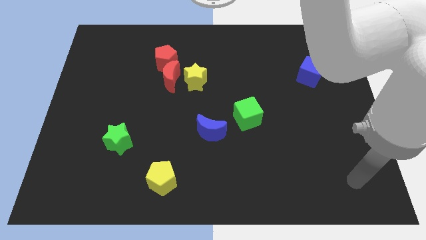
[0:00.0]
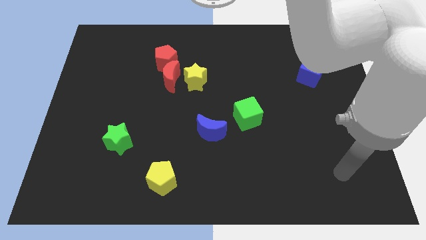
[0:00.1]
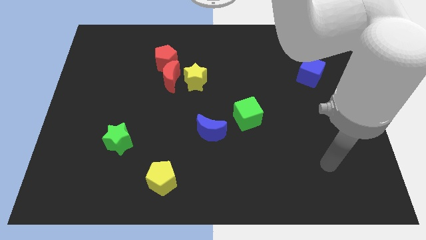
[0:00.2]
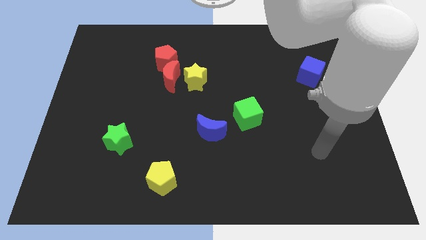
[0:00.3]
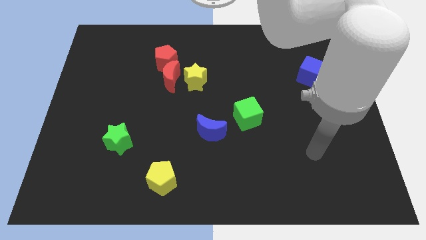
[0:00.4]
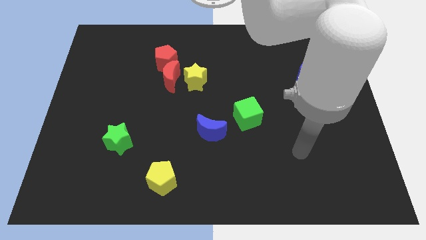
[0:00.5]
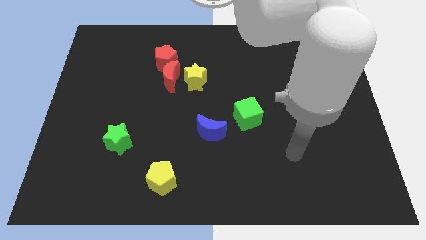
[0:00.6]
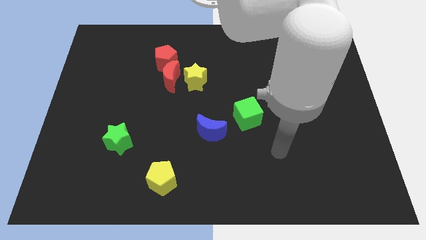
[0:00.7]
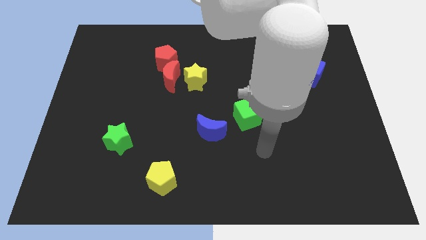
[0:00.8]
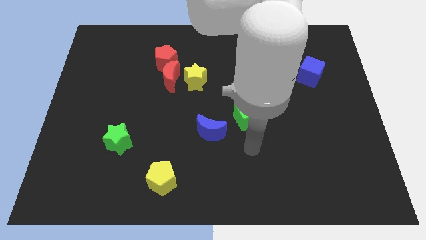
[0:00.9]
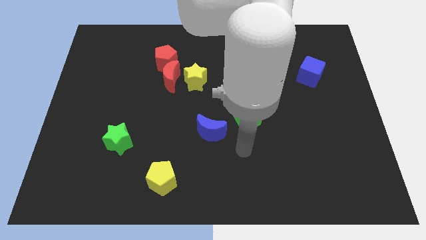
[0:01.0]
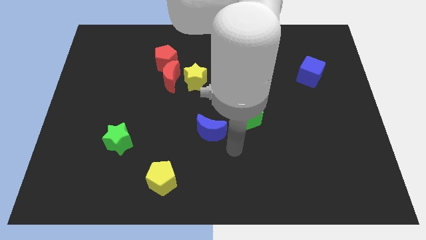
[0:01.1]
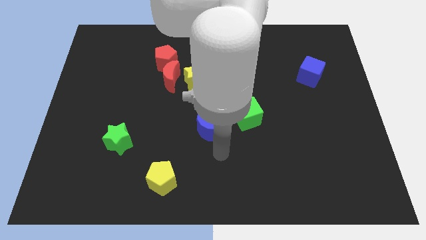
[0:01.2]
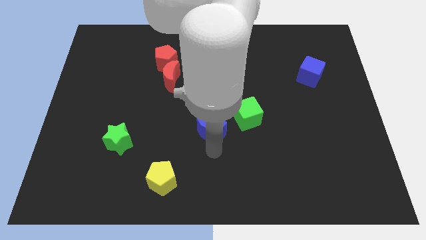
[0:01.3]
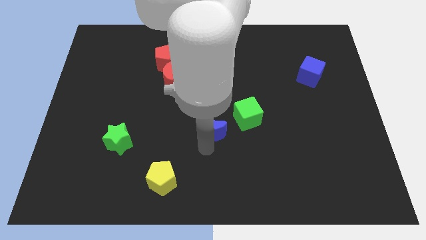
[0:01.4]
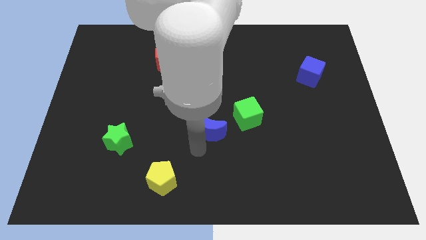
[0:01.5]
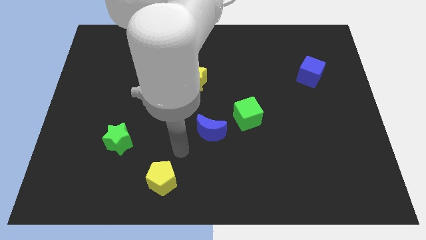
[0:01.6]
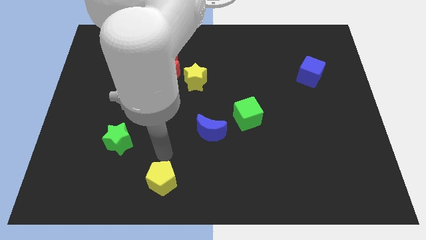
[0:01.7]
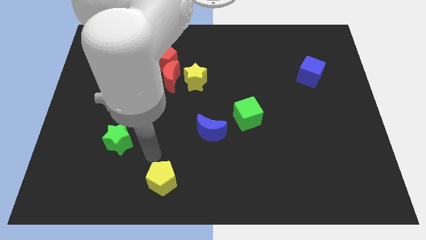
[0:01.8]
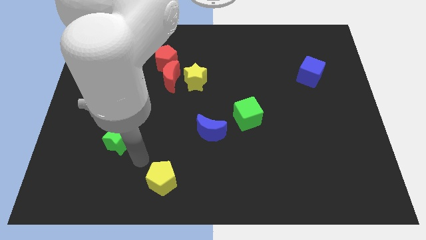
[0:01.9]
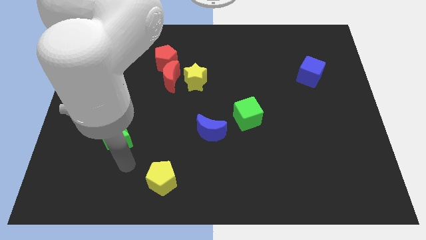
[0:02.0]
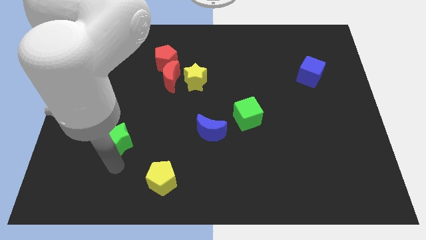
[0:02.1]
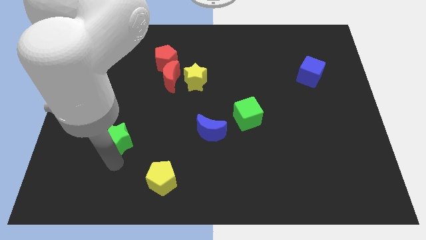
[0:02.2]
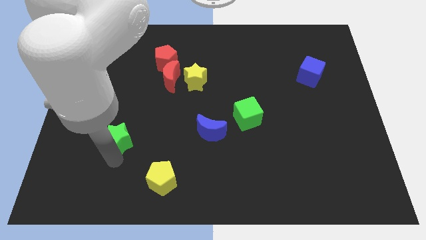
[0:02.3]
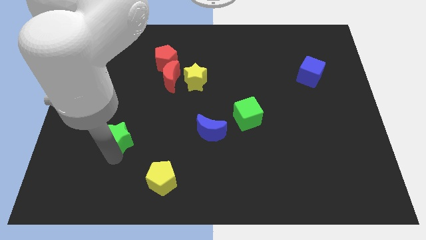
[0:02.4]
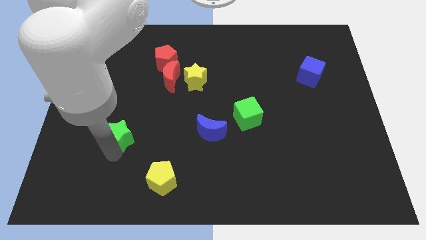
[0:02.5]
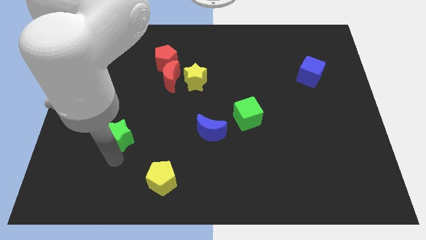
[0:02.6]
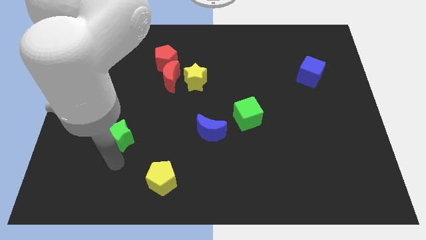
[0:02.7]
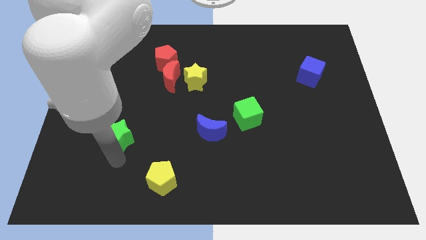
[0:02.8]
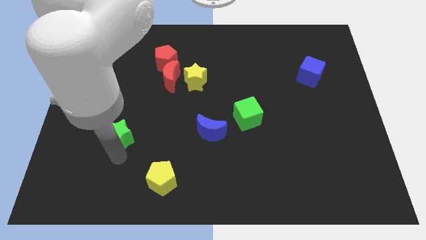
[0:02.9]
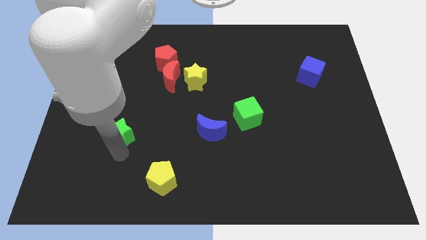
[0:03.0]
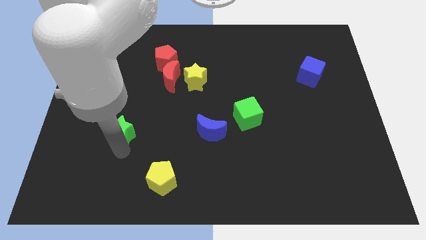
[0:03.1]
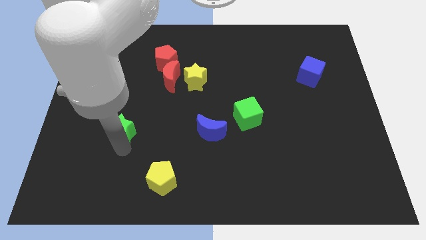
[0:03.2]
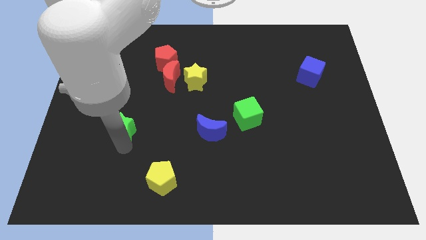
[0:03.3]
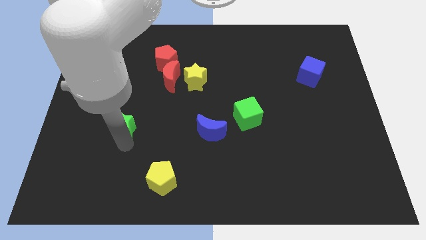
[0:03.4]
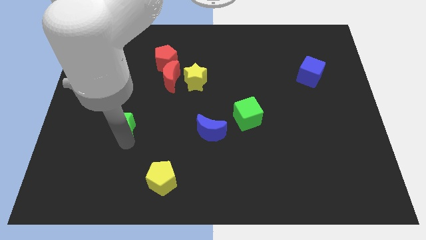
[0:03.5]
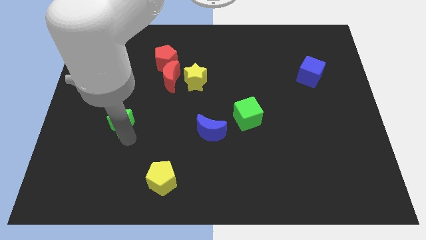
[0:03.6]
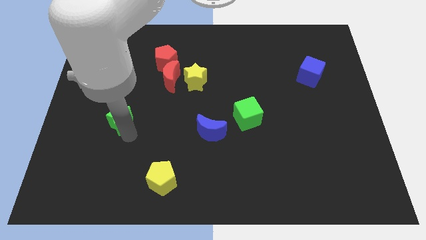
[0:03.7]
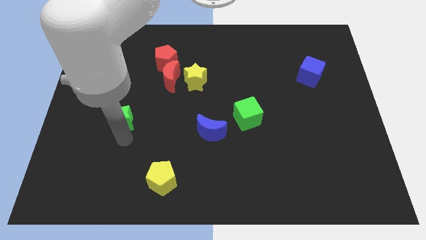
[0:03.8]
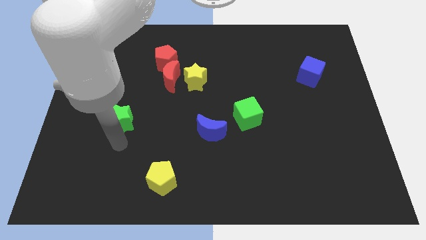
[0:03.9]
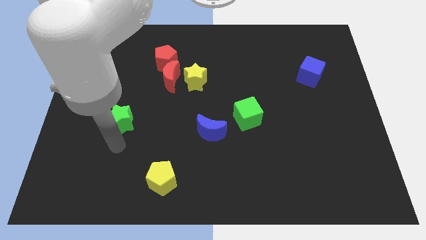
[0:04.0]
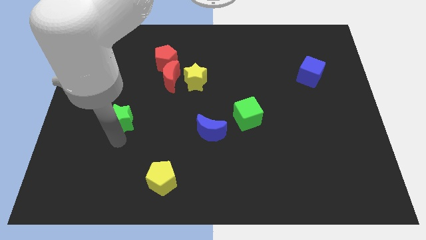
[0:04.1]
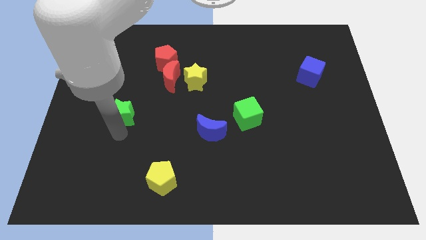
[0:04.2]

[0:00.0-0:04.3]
slide the green star a little upwards

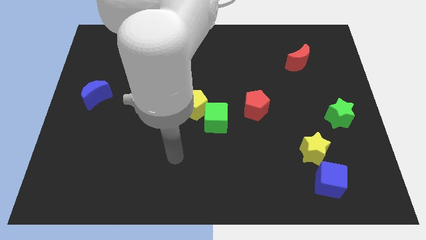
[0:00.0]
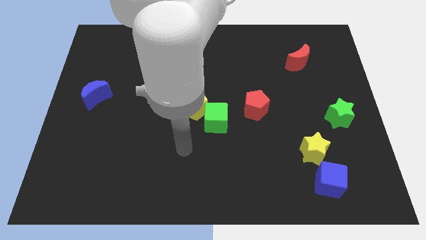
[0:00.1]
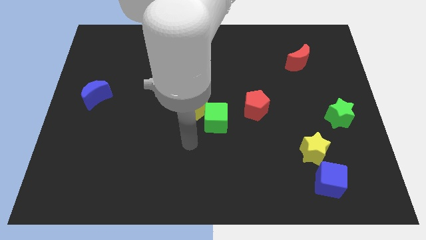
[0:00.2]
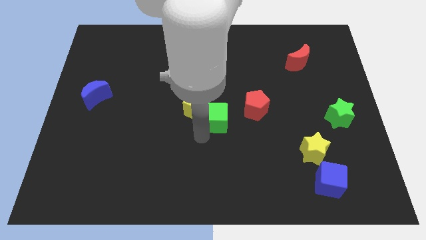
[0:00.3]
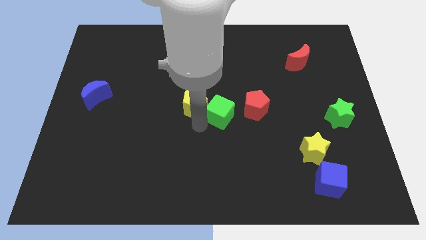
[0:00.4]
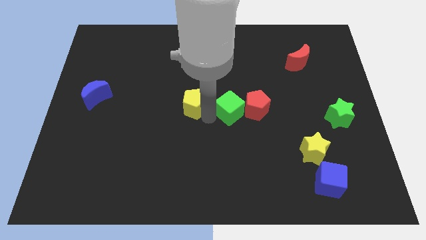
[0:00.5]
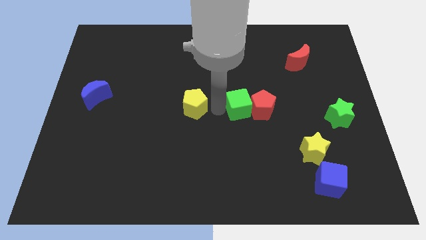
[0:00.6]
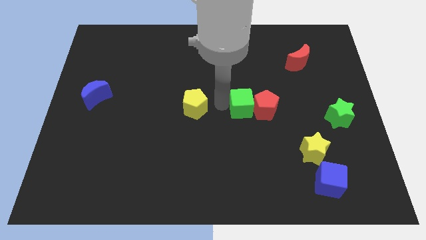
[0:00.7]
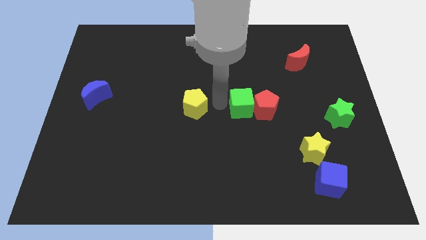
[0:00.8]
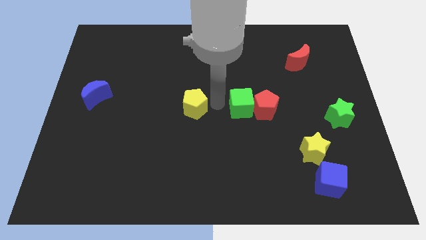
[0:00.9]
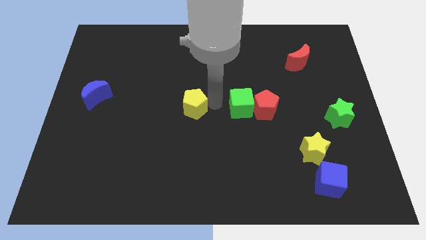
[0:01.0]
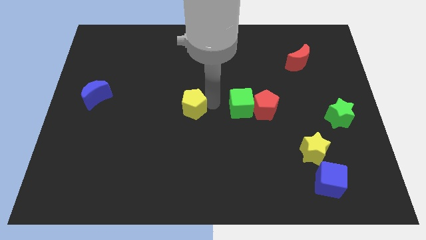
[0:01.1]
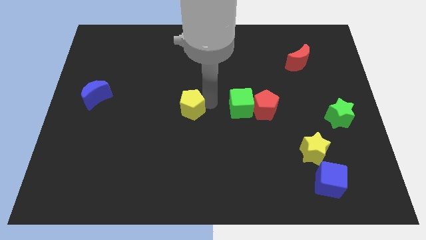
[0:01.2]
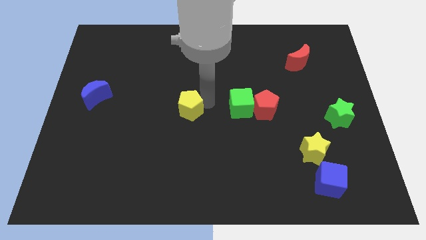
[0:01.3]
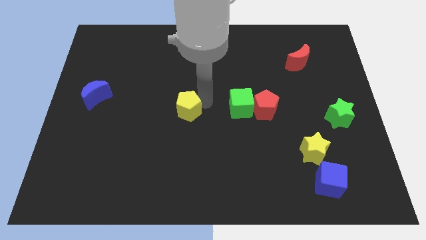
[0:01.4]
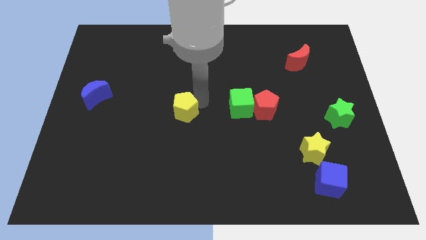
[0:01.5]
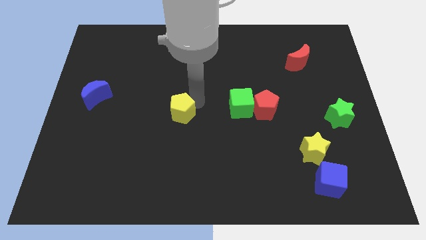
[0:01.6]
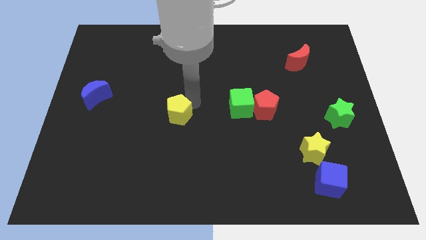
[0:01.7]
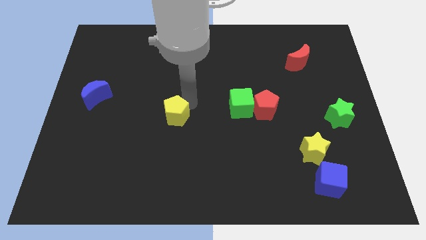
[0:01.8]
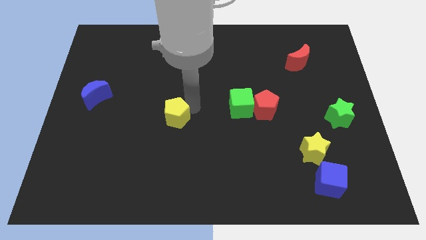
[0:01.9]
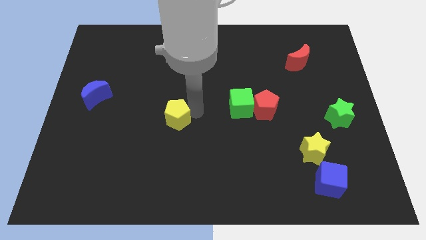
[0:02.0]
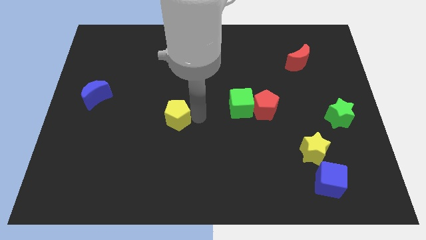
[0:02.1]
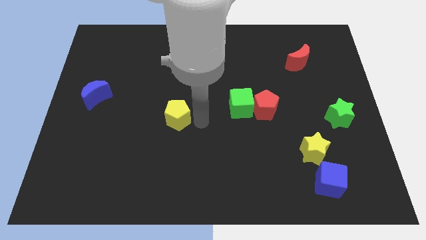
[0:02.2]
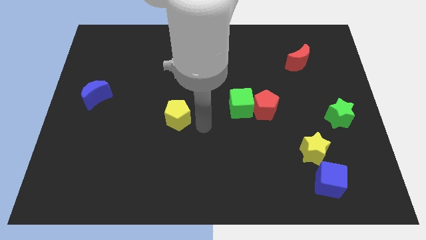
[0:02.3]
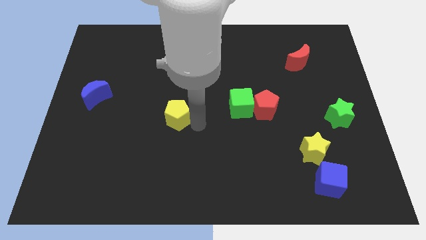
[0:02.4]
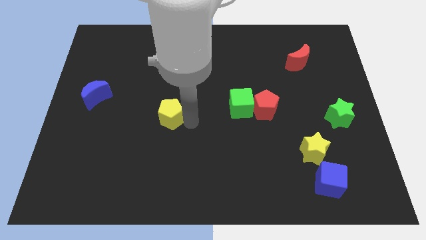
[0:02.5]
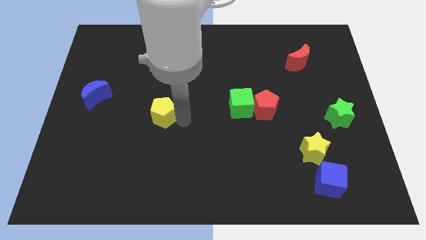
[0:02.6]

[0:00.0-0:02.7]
slide the yellow pentagon to the left a little

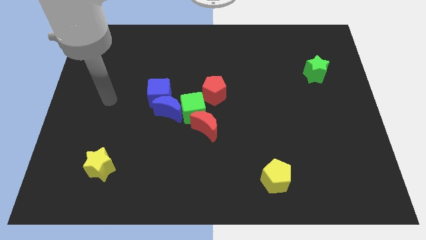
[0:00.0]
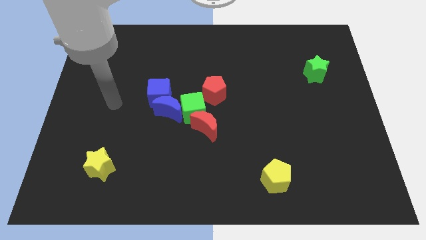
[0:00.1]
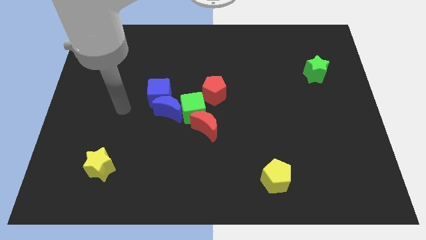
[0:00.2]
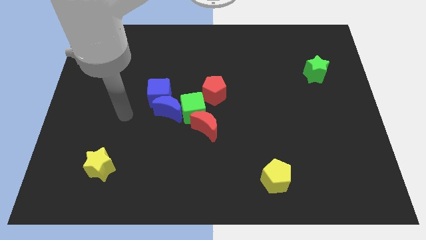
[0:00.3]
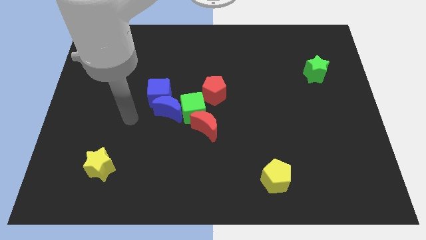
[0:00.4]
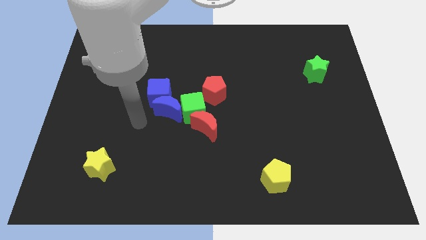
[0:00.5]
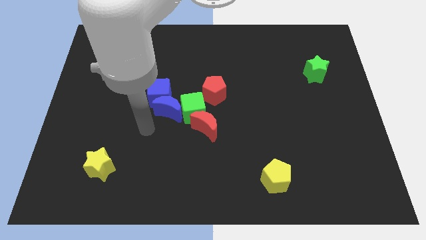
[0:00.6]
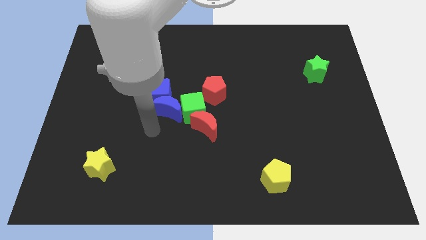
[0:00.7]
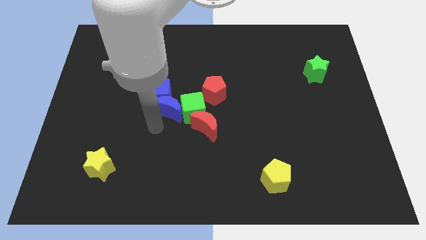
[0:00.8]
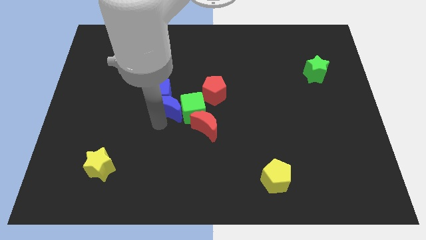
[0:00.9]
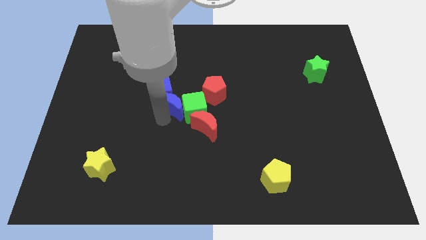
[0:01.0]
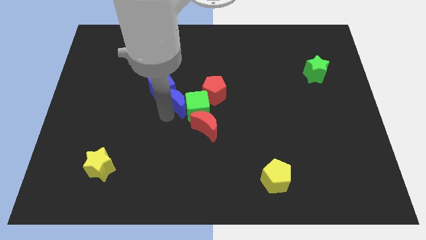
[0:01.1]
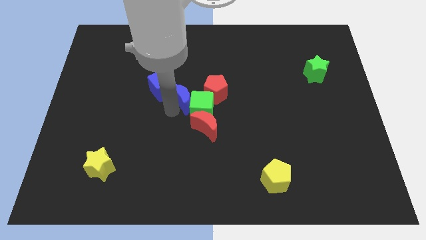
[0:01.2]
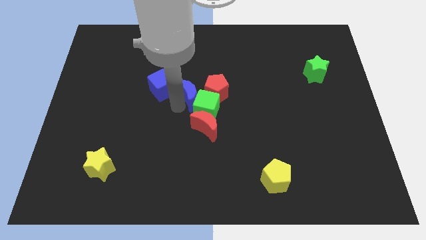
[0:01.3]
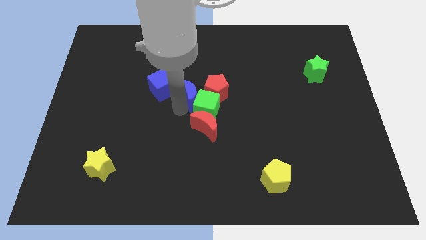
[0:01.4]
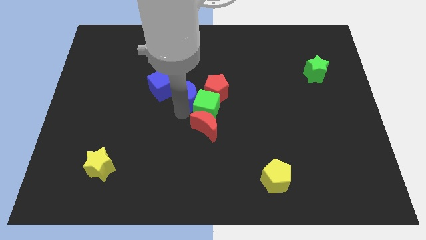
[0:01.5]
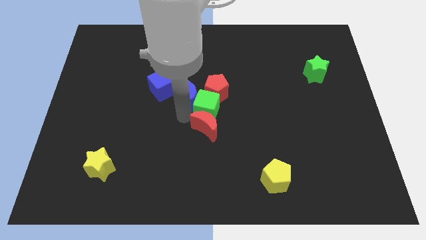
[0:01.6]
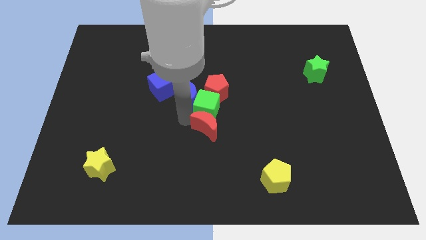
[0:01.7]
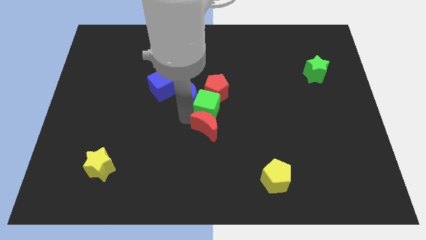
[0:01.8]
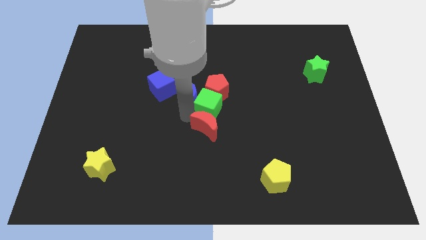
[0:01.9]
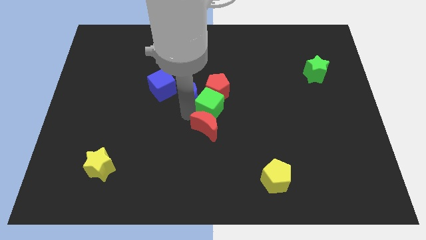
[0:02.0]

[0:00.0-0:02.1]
move the blue moon a little bit diagonally upwards and right
